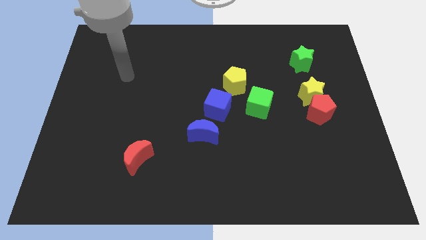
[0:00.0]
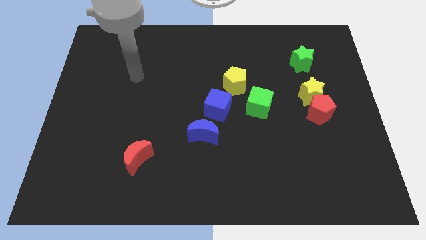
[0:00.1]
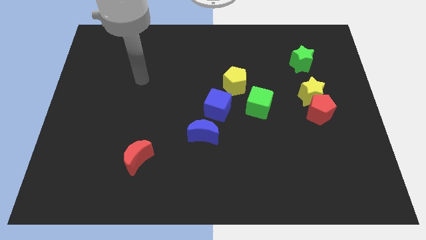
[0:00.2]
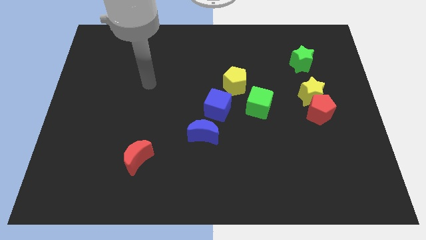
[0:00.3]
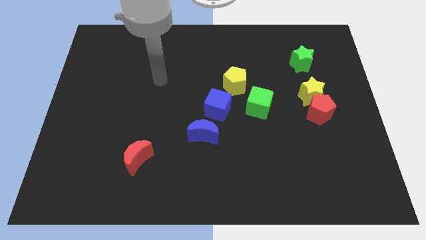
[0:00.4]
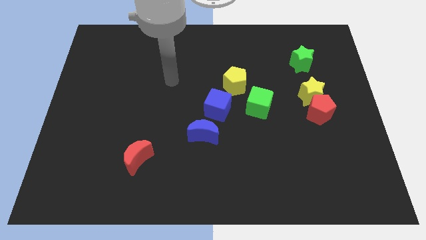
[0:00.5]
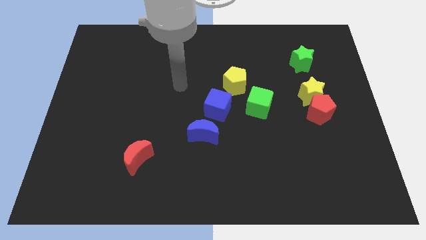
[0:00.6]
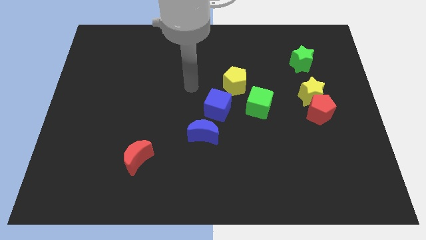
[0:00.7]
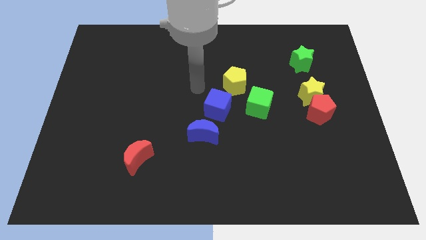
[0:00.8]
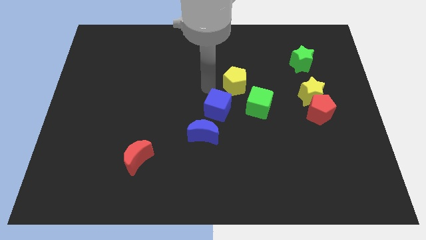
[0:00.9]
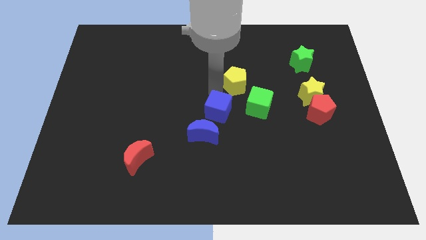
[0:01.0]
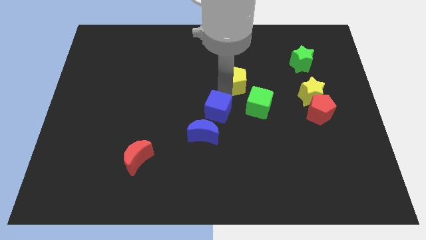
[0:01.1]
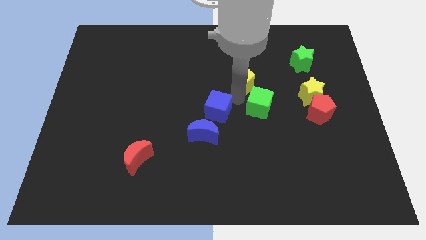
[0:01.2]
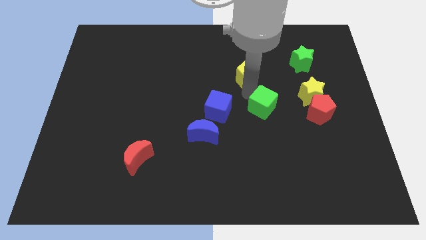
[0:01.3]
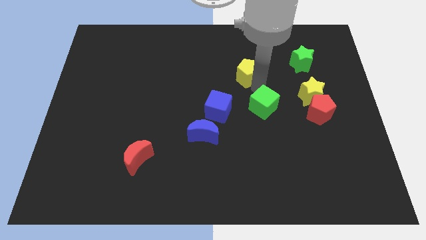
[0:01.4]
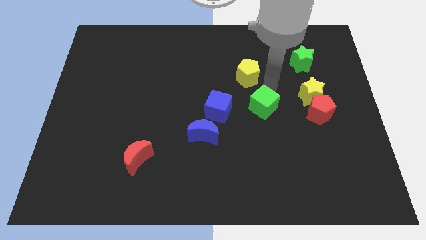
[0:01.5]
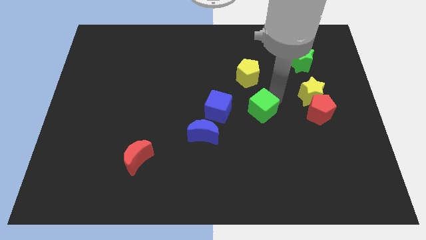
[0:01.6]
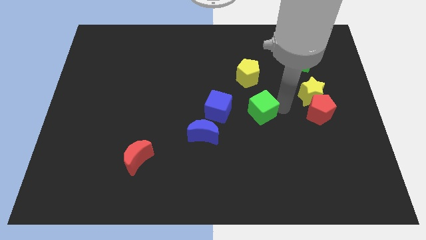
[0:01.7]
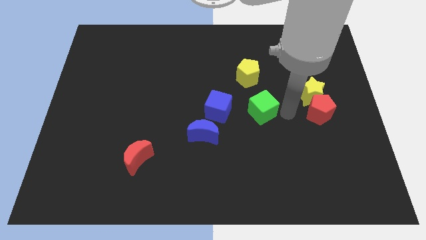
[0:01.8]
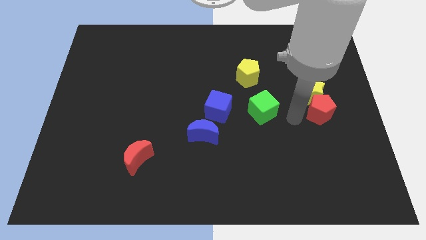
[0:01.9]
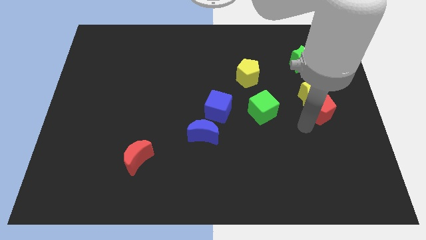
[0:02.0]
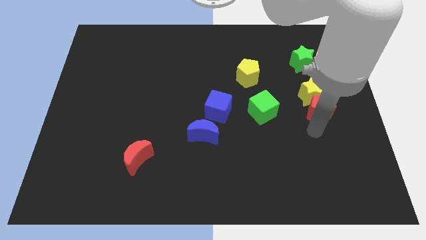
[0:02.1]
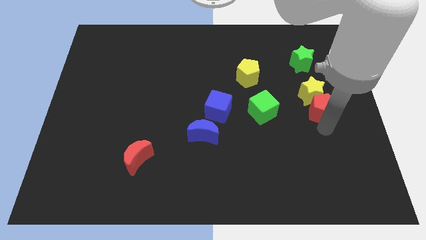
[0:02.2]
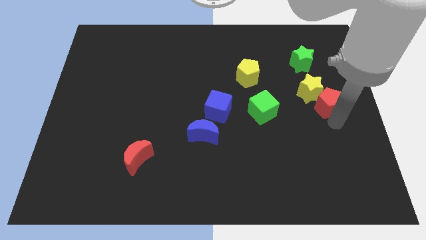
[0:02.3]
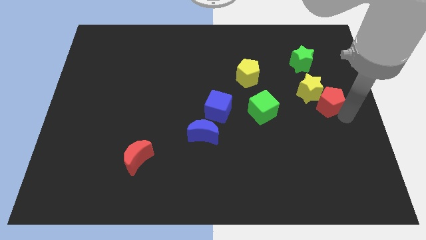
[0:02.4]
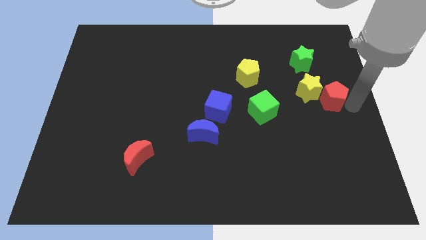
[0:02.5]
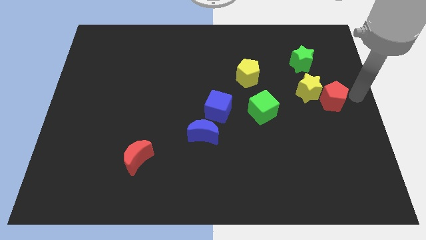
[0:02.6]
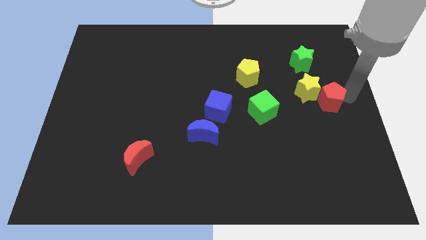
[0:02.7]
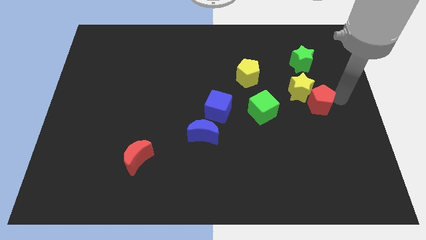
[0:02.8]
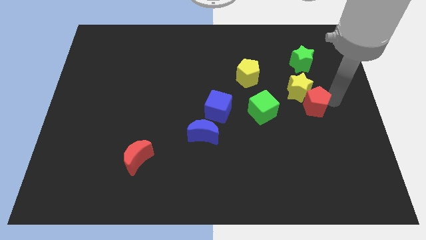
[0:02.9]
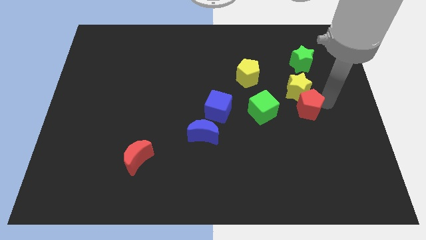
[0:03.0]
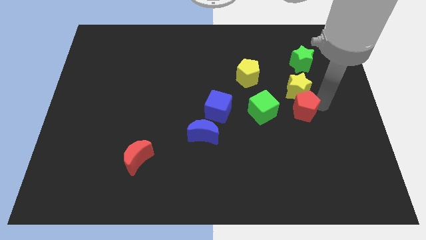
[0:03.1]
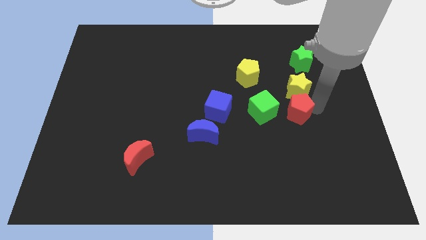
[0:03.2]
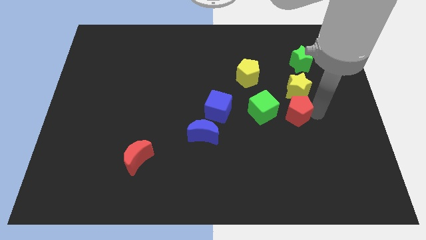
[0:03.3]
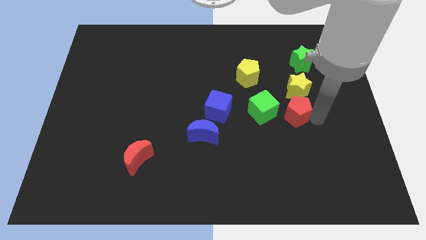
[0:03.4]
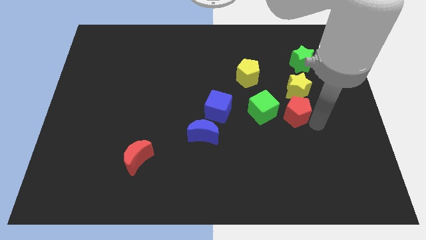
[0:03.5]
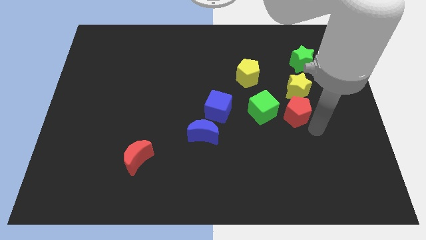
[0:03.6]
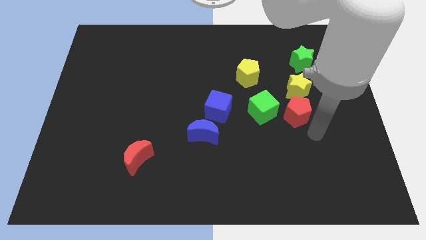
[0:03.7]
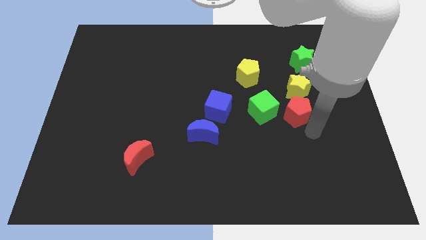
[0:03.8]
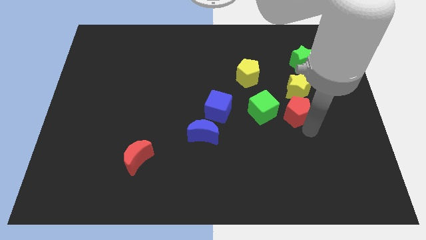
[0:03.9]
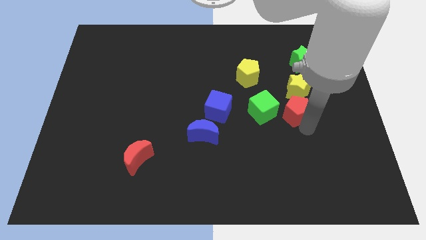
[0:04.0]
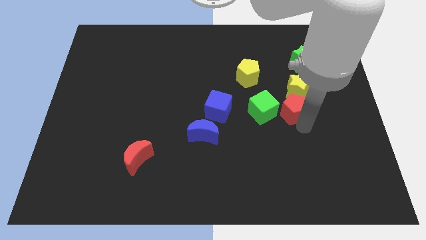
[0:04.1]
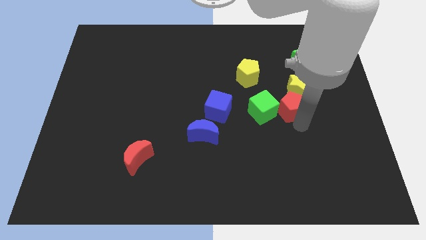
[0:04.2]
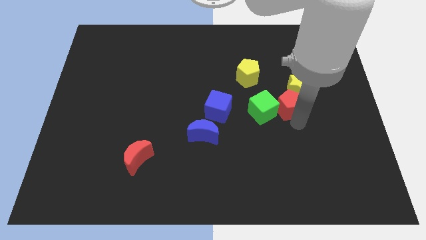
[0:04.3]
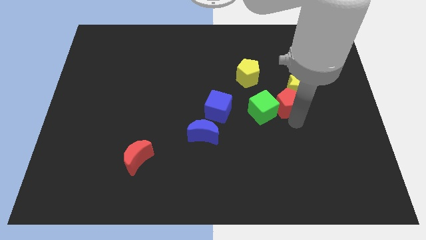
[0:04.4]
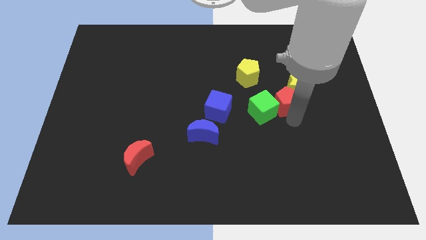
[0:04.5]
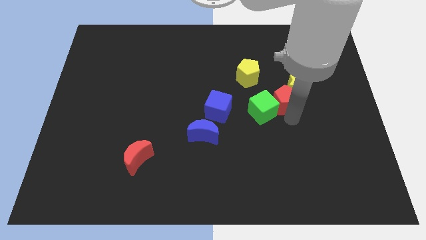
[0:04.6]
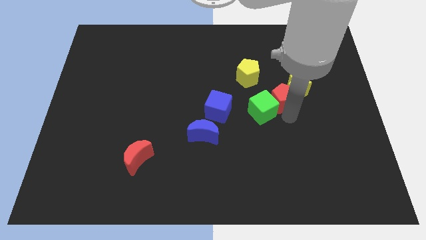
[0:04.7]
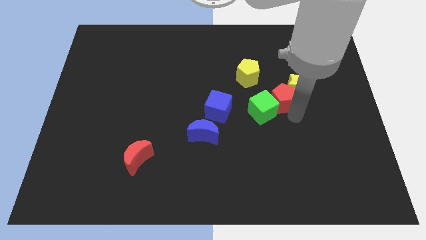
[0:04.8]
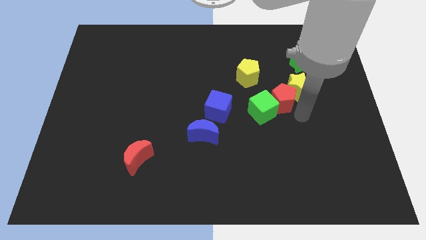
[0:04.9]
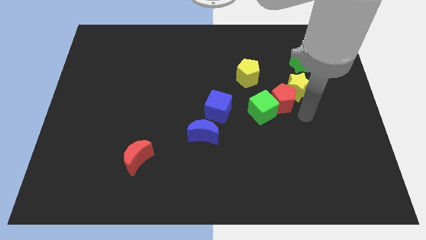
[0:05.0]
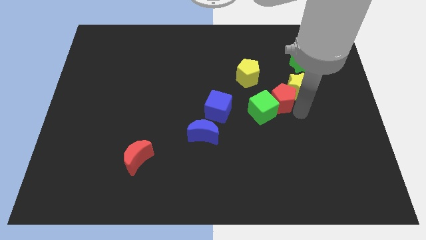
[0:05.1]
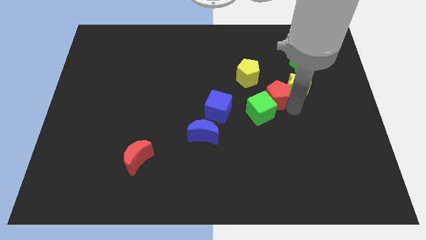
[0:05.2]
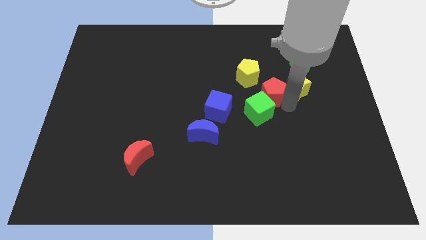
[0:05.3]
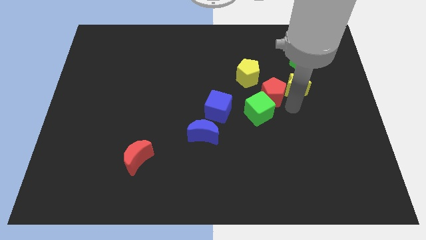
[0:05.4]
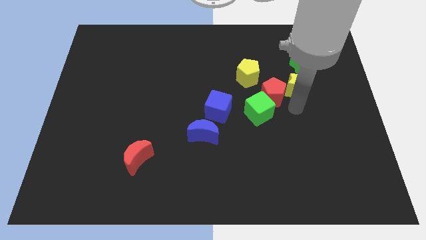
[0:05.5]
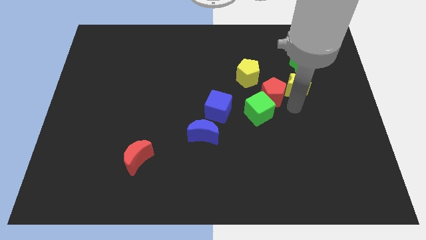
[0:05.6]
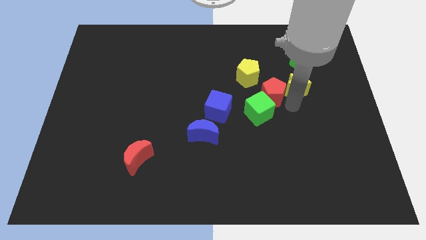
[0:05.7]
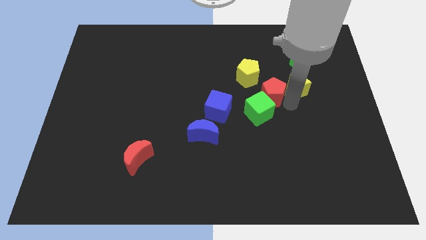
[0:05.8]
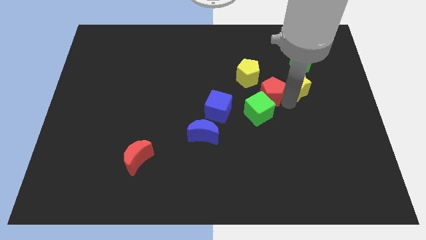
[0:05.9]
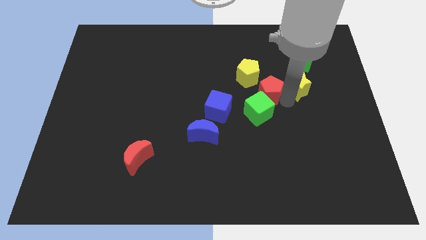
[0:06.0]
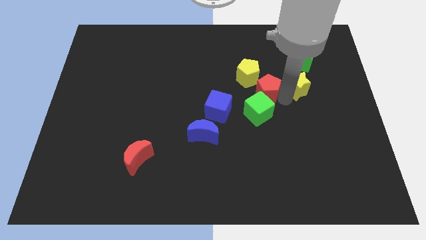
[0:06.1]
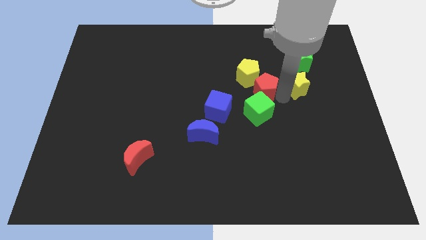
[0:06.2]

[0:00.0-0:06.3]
move the red pentagon to the yellow pentagon
